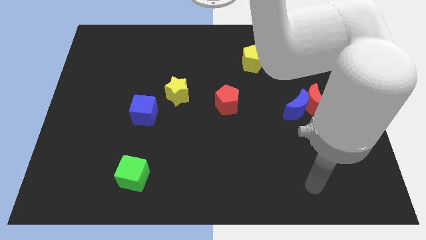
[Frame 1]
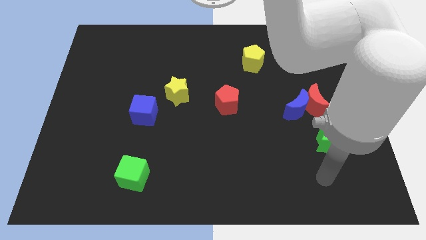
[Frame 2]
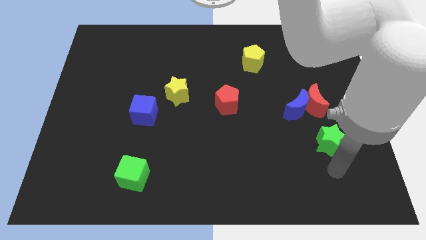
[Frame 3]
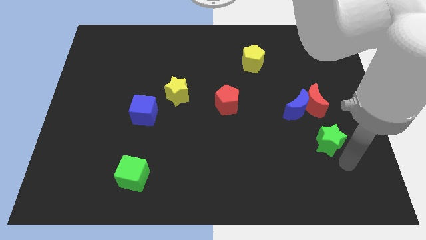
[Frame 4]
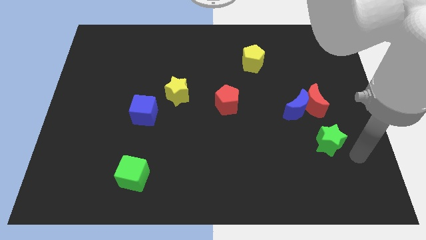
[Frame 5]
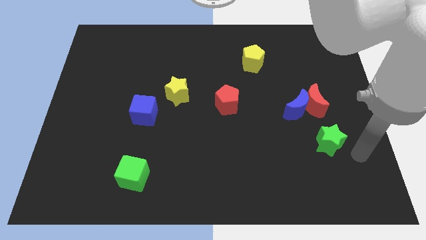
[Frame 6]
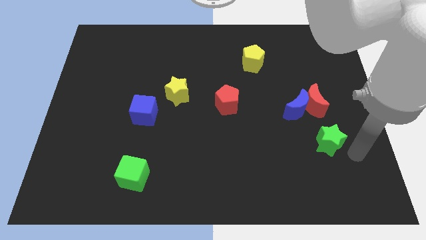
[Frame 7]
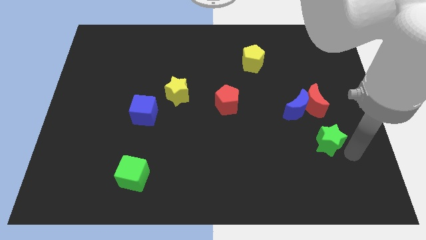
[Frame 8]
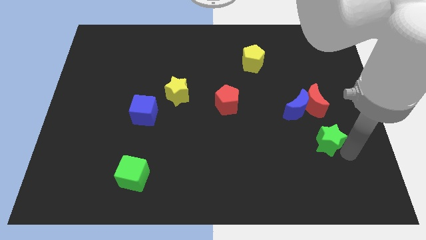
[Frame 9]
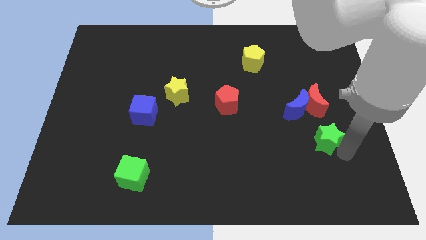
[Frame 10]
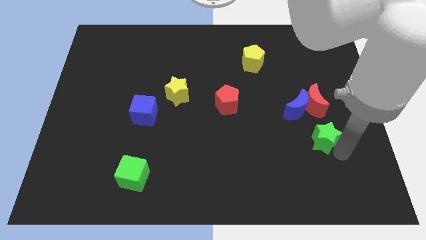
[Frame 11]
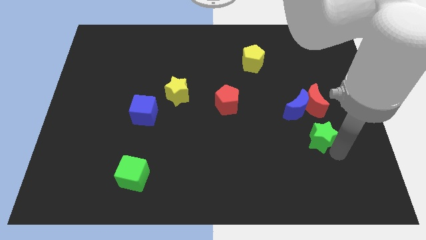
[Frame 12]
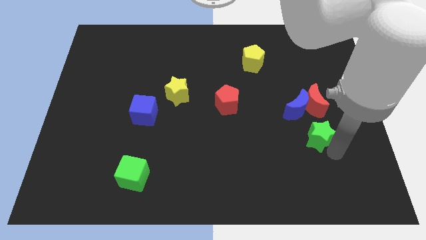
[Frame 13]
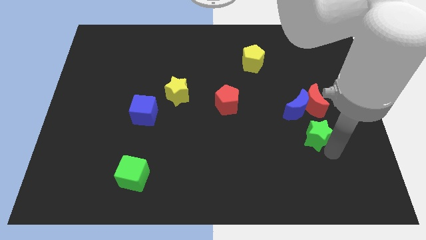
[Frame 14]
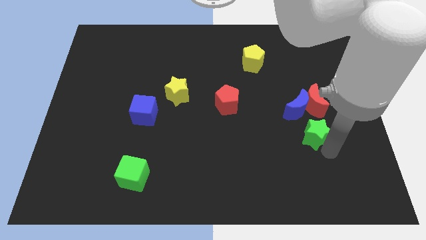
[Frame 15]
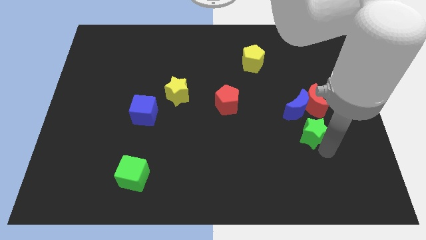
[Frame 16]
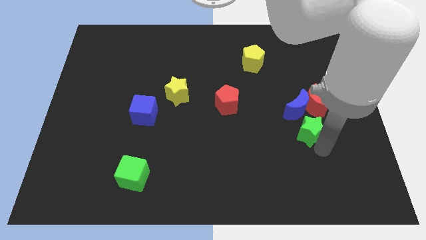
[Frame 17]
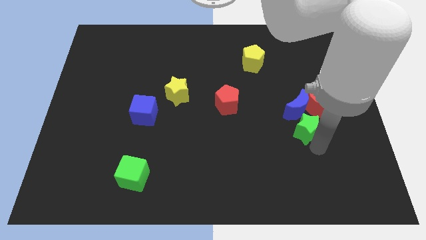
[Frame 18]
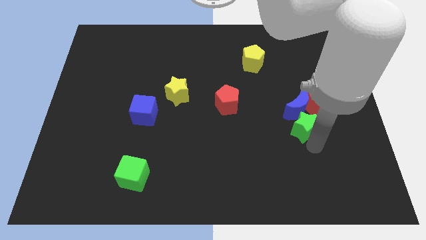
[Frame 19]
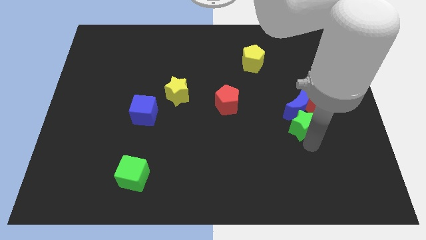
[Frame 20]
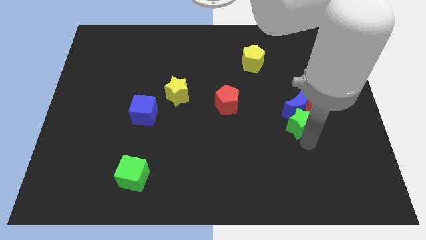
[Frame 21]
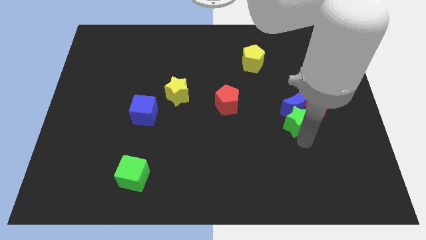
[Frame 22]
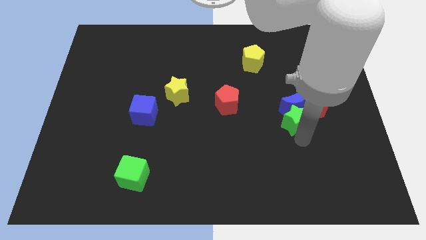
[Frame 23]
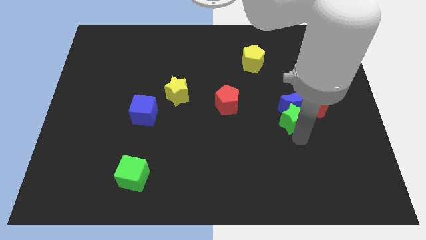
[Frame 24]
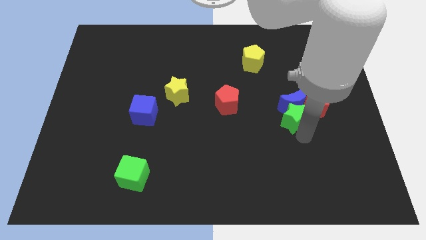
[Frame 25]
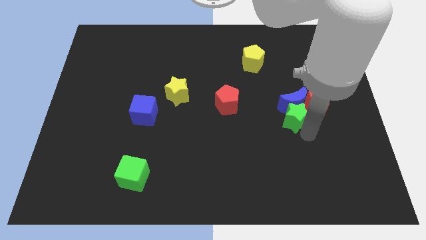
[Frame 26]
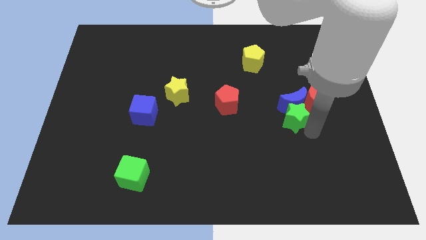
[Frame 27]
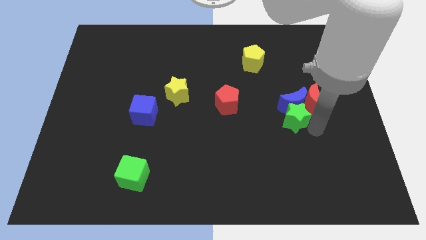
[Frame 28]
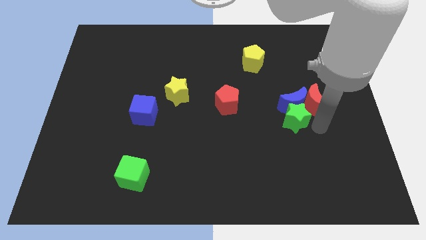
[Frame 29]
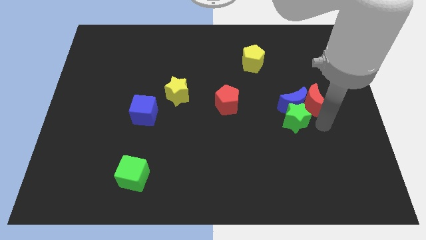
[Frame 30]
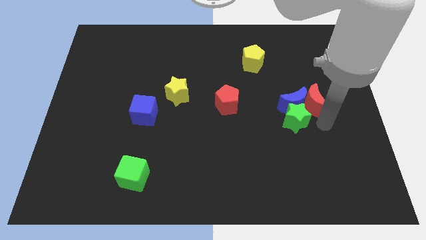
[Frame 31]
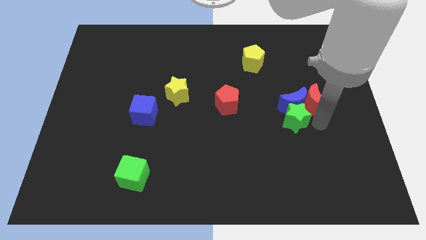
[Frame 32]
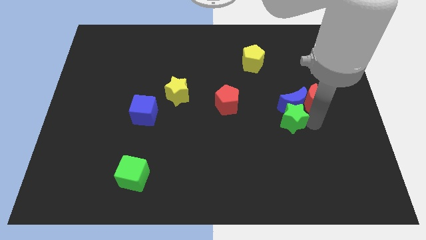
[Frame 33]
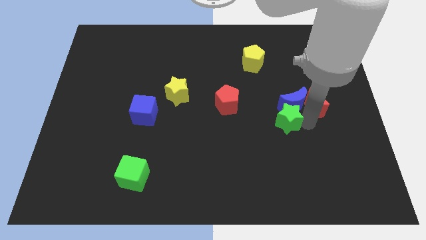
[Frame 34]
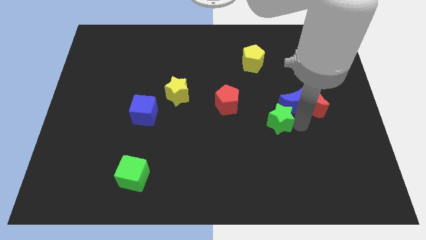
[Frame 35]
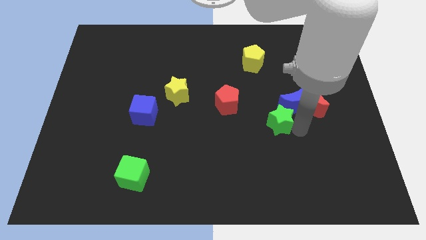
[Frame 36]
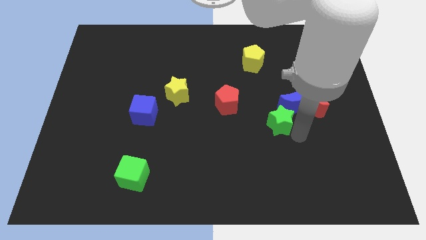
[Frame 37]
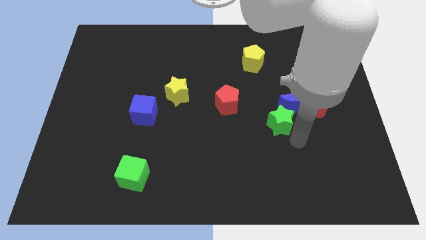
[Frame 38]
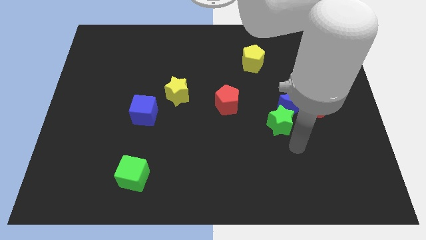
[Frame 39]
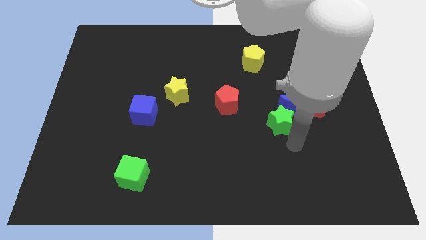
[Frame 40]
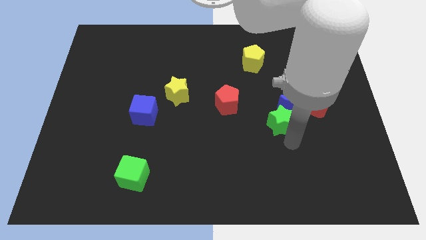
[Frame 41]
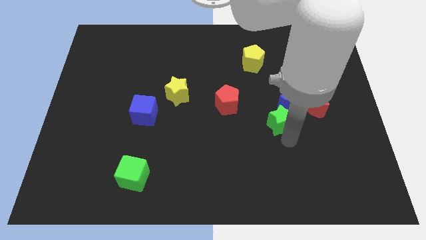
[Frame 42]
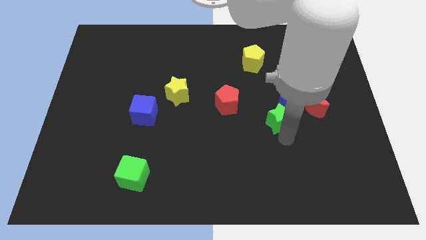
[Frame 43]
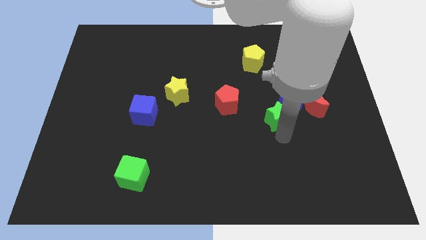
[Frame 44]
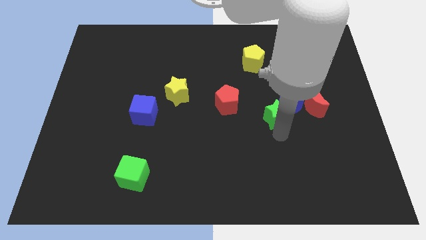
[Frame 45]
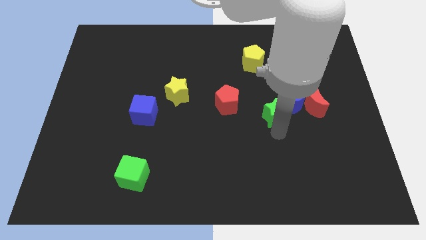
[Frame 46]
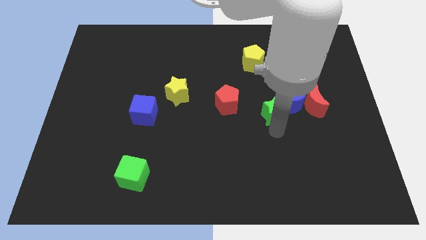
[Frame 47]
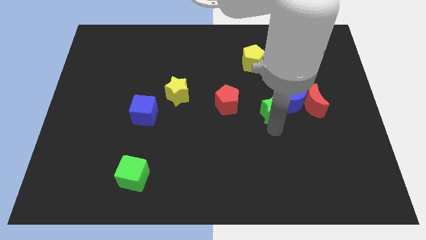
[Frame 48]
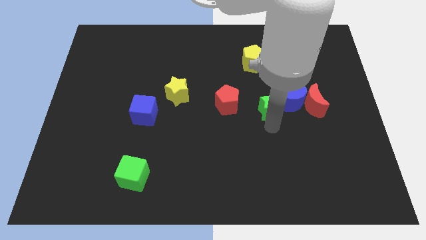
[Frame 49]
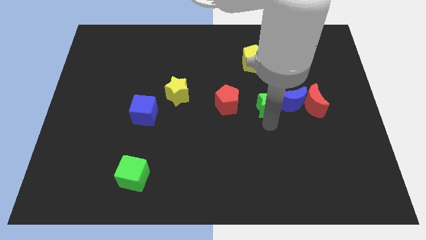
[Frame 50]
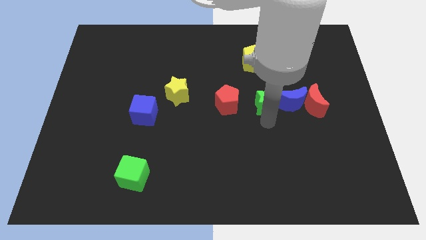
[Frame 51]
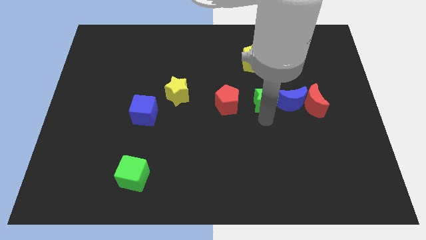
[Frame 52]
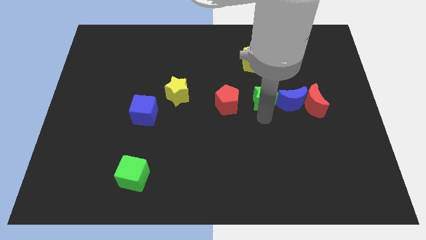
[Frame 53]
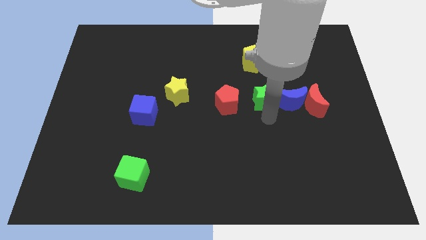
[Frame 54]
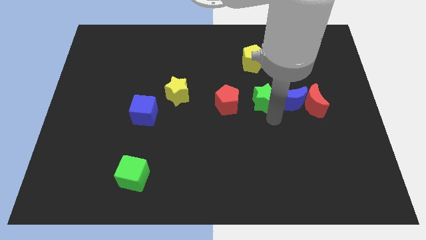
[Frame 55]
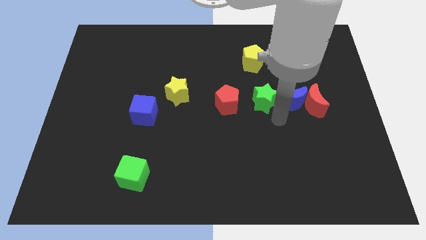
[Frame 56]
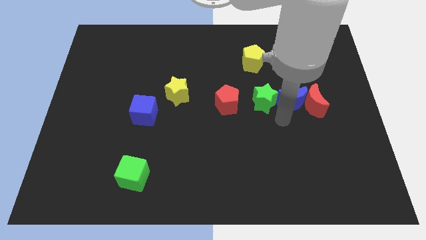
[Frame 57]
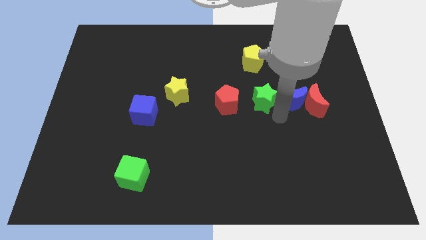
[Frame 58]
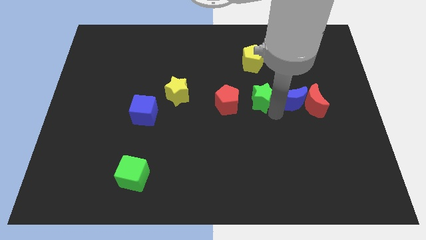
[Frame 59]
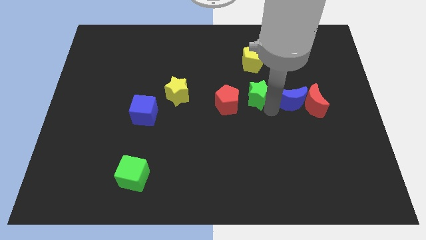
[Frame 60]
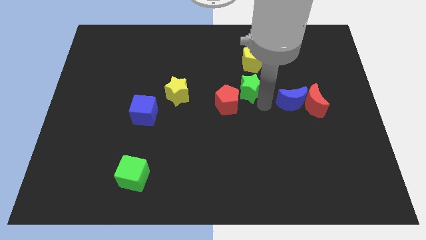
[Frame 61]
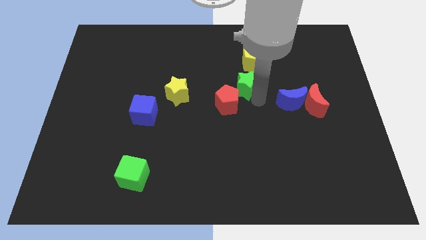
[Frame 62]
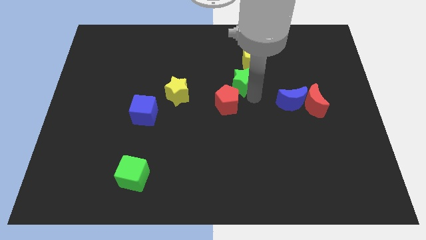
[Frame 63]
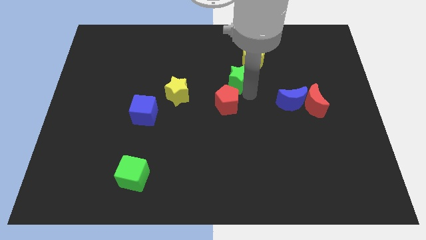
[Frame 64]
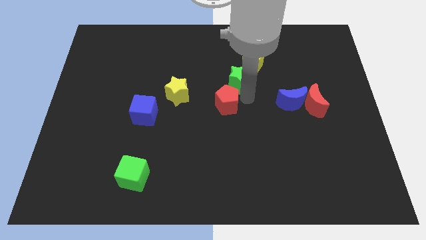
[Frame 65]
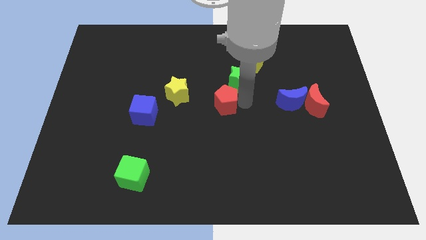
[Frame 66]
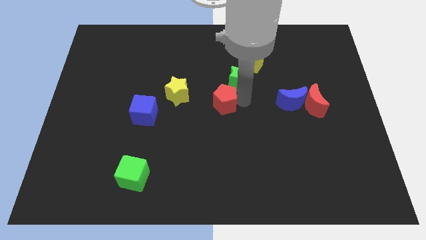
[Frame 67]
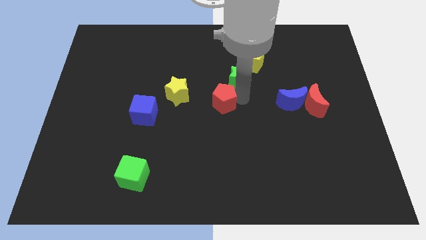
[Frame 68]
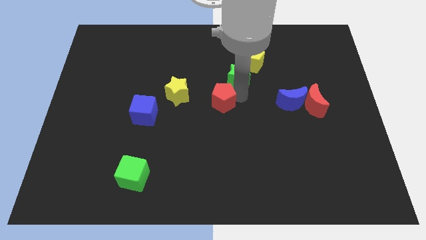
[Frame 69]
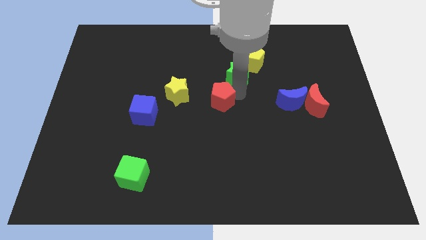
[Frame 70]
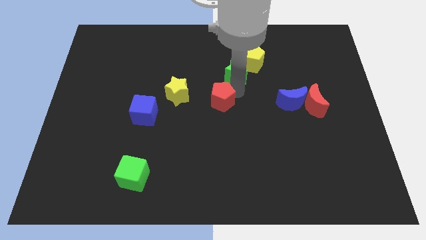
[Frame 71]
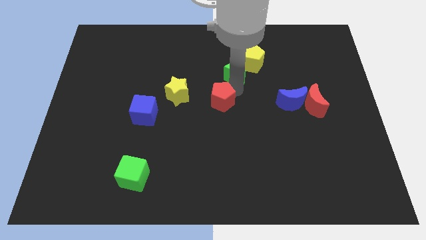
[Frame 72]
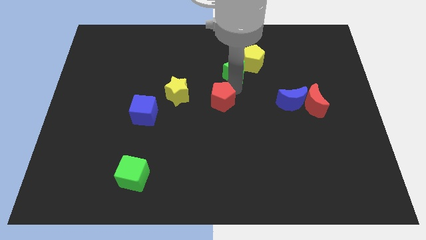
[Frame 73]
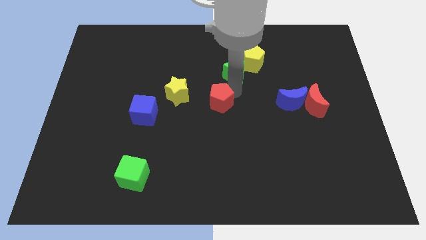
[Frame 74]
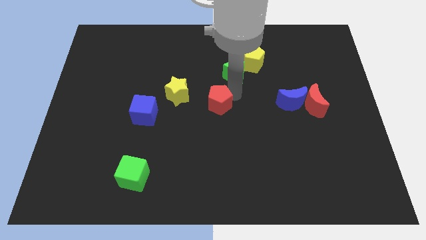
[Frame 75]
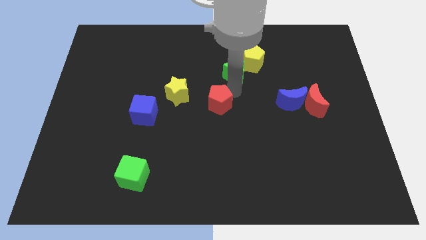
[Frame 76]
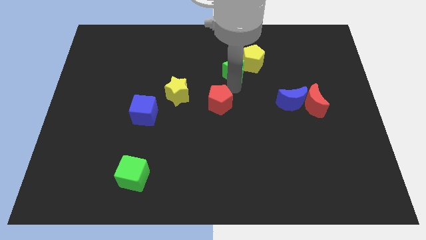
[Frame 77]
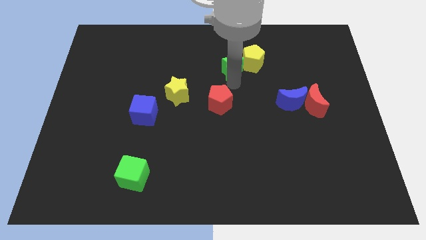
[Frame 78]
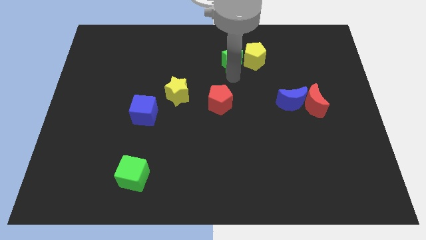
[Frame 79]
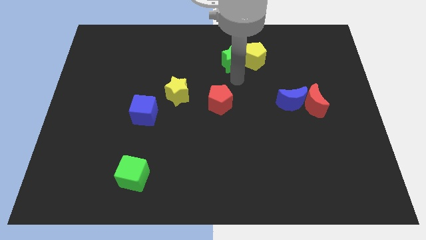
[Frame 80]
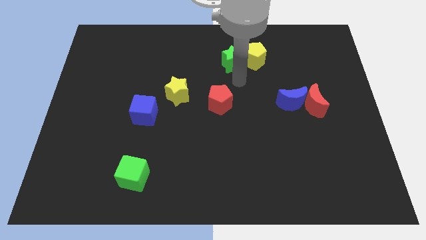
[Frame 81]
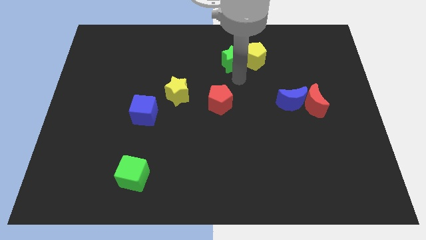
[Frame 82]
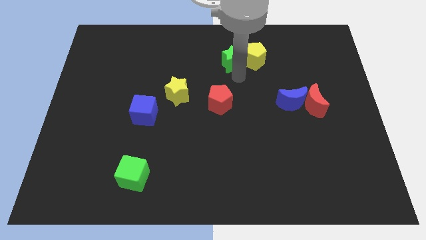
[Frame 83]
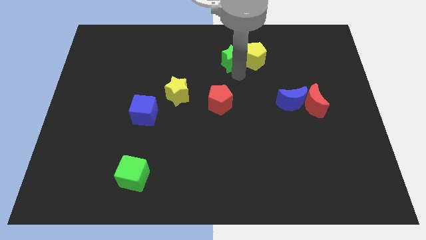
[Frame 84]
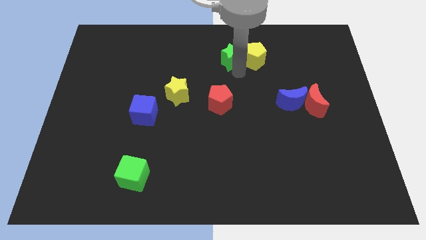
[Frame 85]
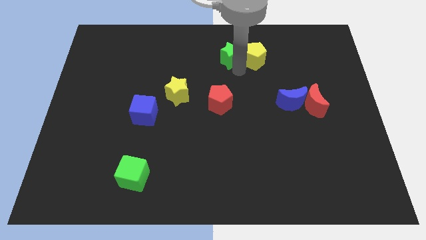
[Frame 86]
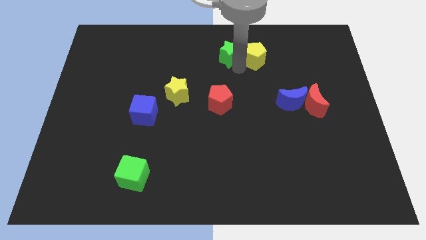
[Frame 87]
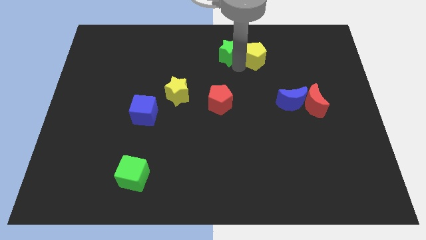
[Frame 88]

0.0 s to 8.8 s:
put the green star to the top
